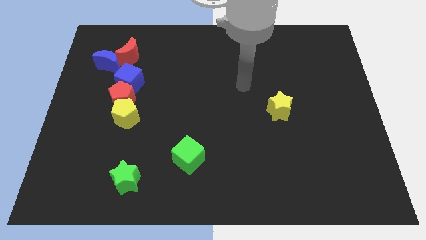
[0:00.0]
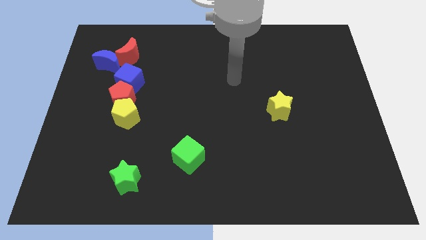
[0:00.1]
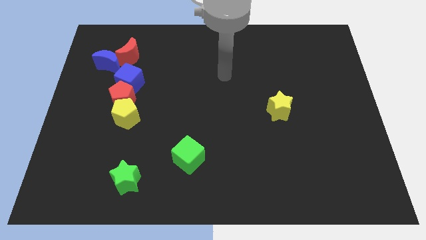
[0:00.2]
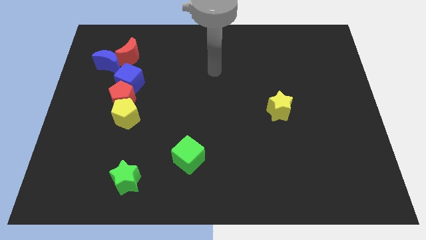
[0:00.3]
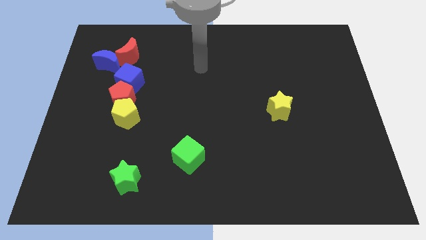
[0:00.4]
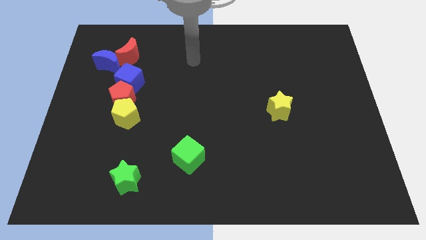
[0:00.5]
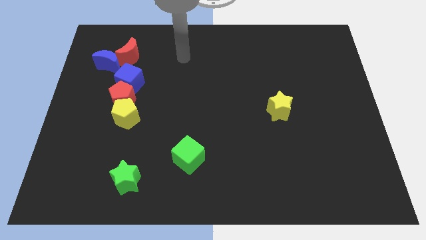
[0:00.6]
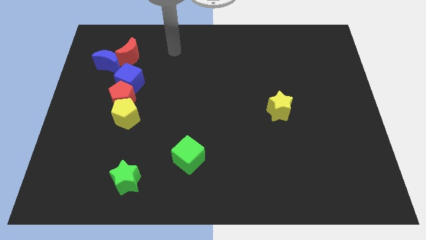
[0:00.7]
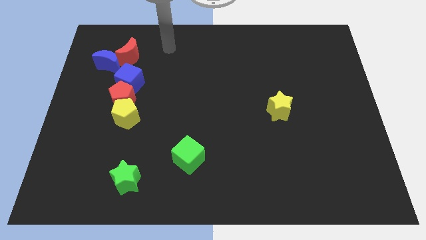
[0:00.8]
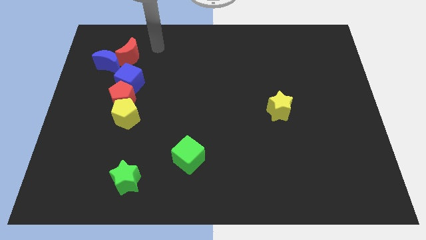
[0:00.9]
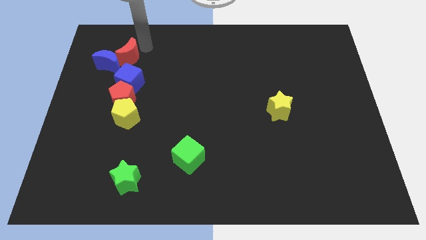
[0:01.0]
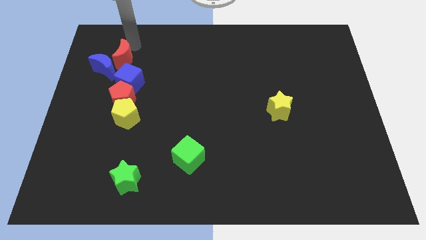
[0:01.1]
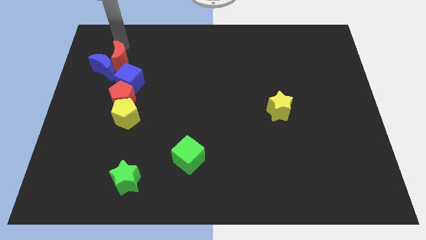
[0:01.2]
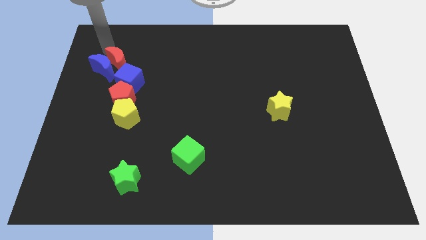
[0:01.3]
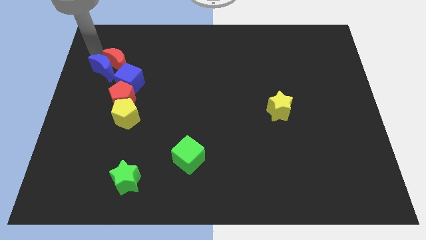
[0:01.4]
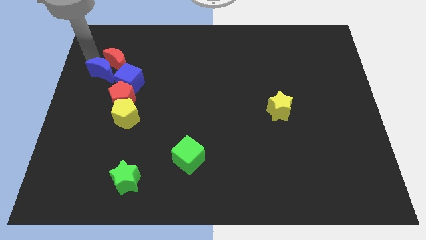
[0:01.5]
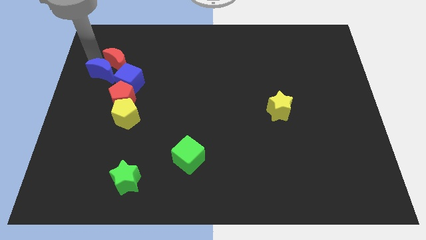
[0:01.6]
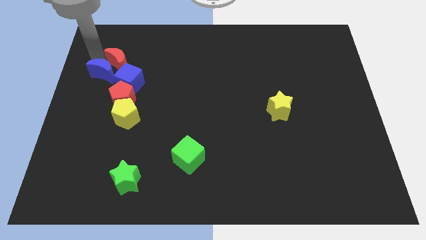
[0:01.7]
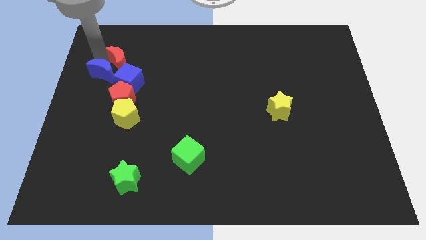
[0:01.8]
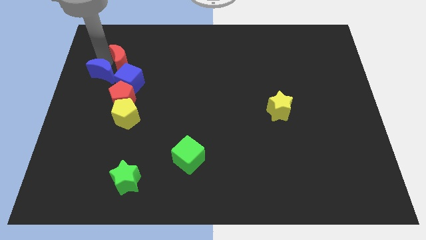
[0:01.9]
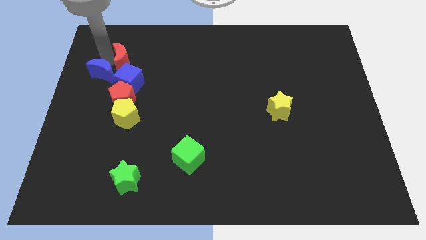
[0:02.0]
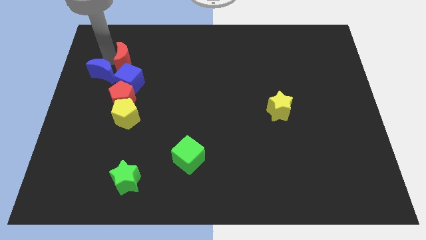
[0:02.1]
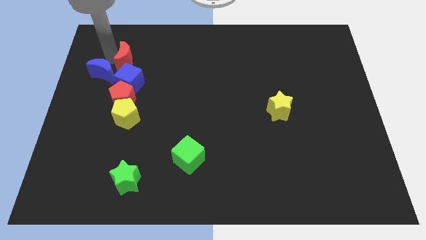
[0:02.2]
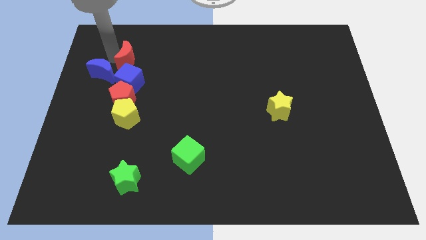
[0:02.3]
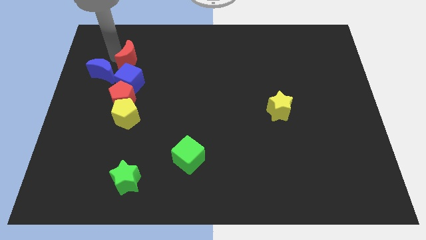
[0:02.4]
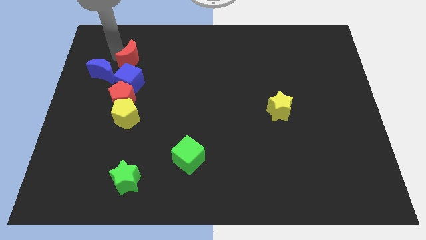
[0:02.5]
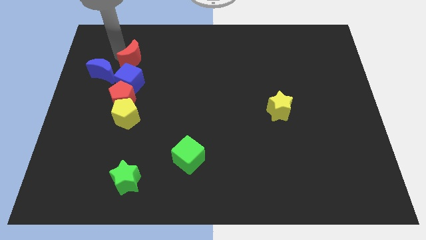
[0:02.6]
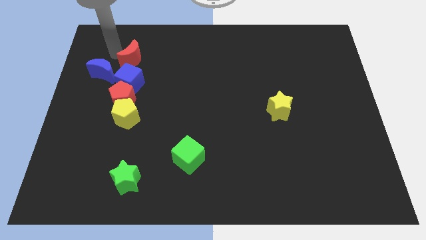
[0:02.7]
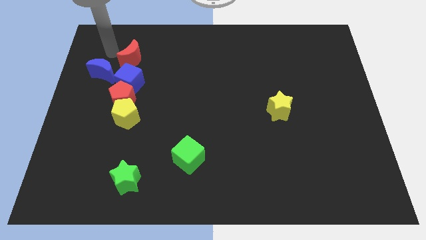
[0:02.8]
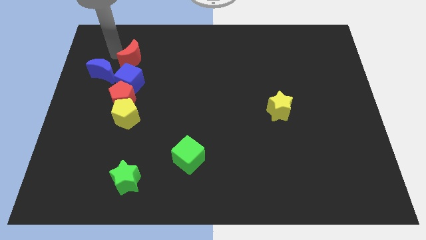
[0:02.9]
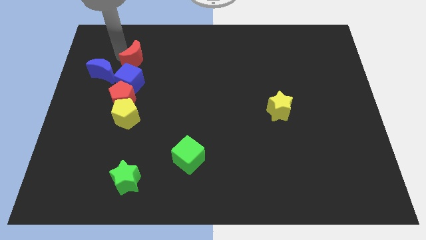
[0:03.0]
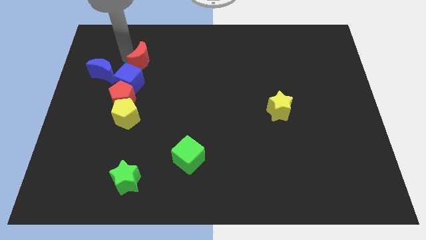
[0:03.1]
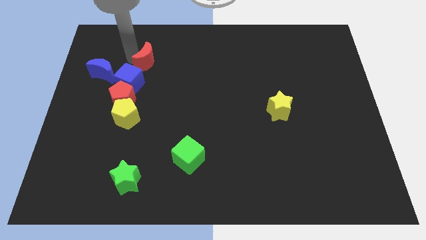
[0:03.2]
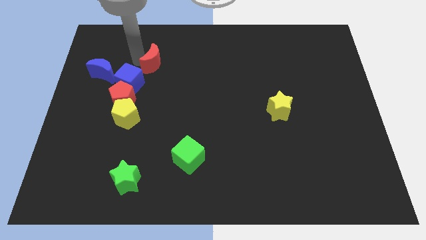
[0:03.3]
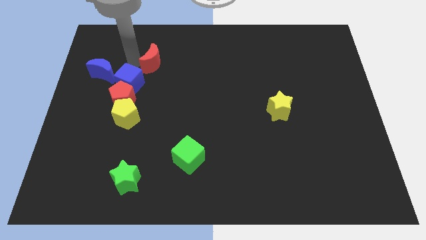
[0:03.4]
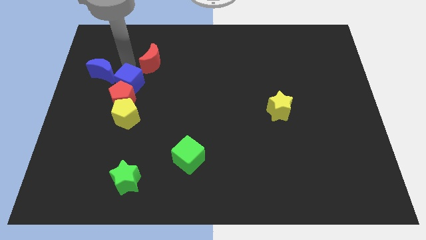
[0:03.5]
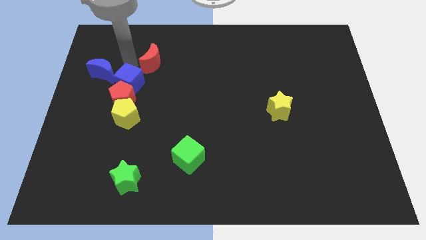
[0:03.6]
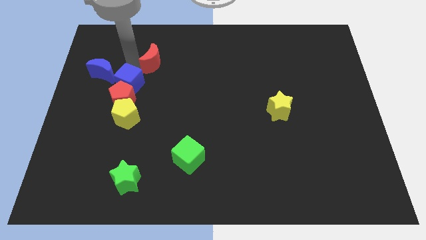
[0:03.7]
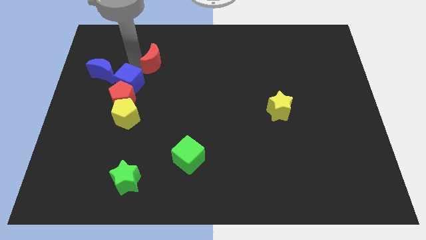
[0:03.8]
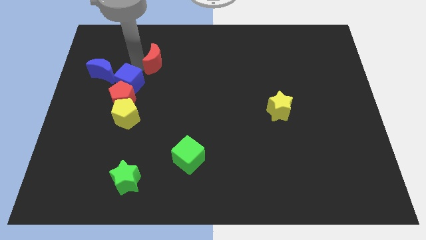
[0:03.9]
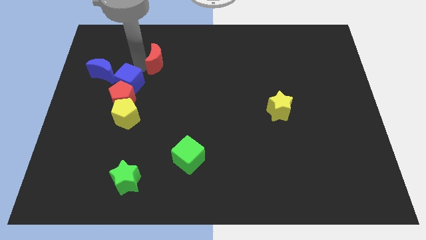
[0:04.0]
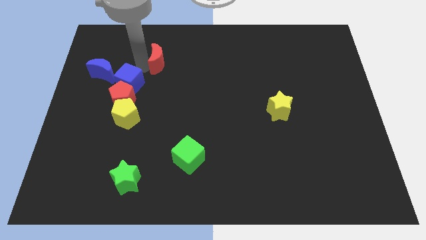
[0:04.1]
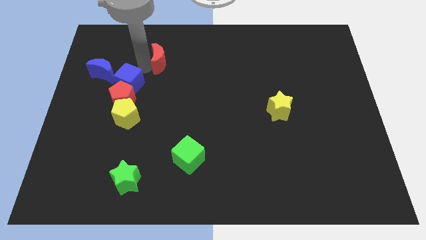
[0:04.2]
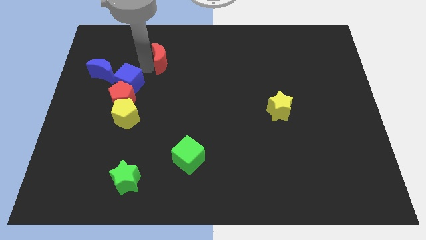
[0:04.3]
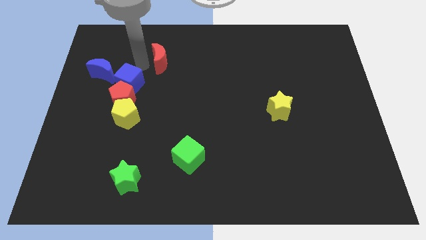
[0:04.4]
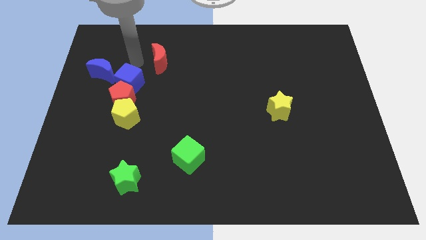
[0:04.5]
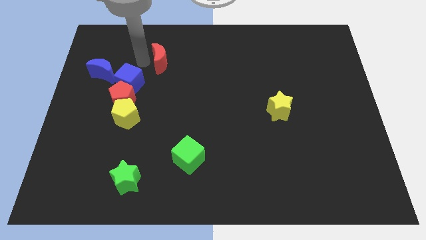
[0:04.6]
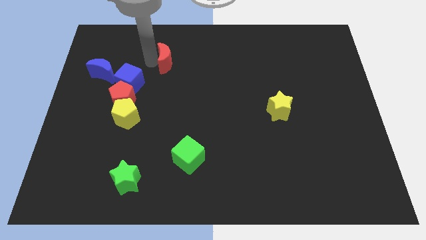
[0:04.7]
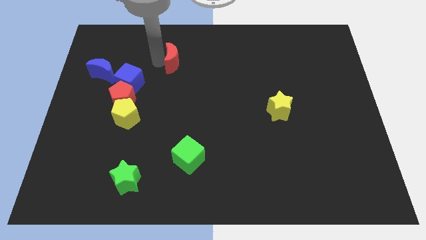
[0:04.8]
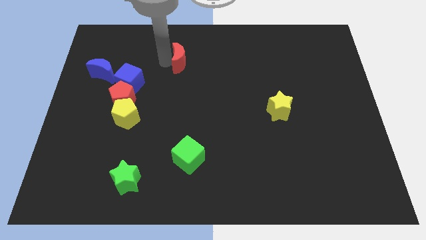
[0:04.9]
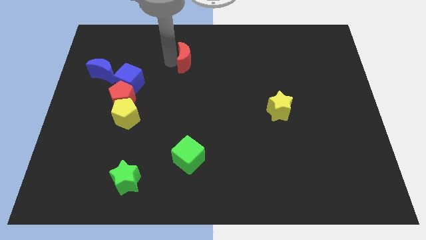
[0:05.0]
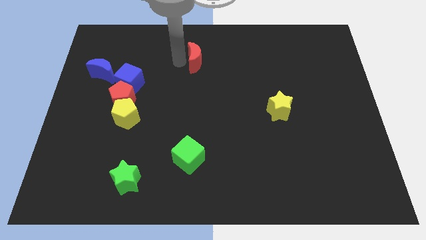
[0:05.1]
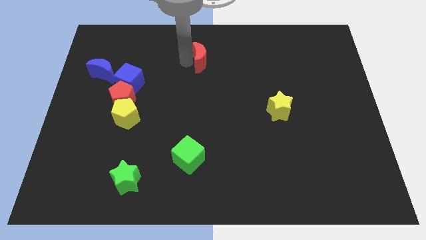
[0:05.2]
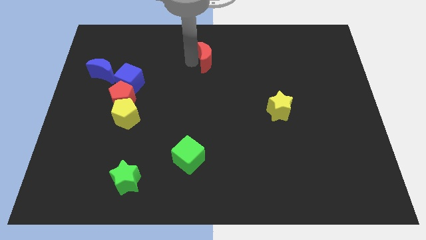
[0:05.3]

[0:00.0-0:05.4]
push the red moon right

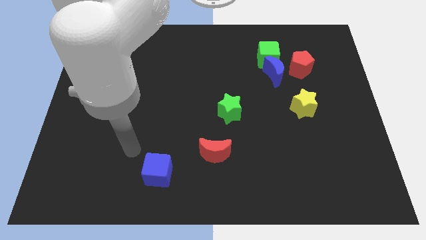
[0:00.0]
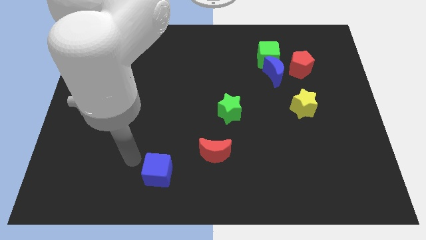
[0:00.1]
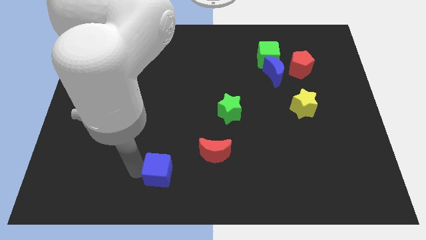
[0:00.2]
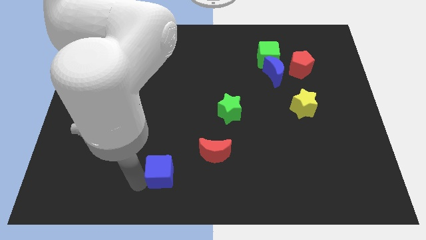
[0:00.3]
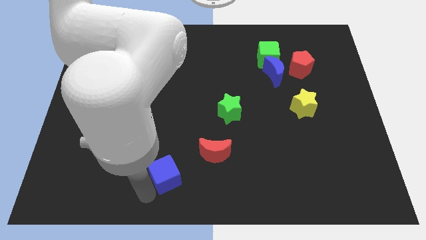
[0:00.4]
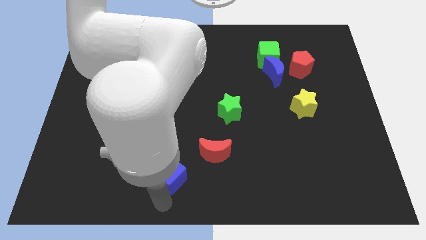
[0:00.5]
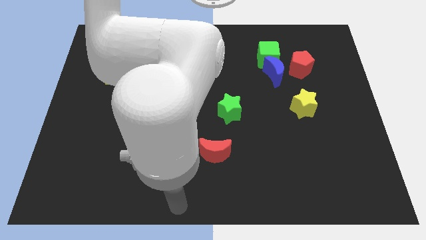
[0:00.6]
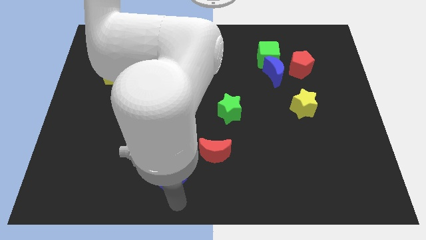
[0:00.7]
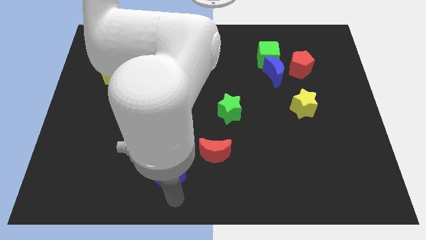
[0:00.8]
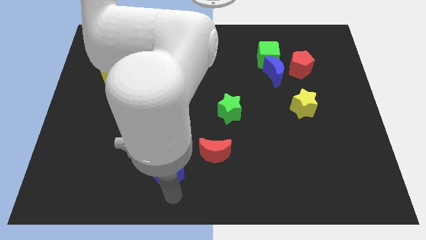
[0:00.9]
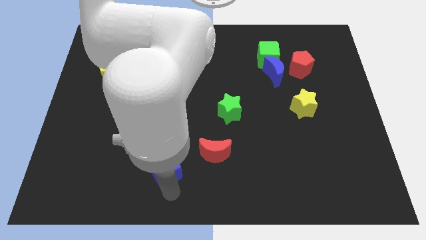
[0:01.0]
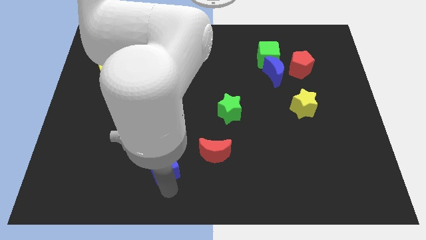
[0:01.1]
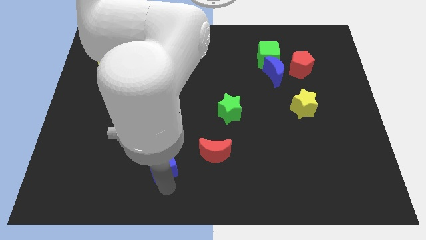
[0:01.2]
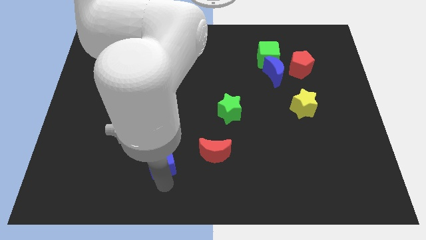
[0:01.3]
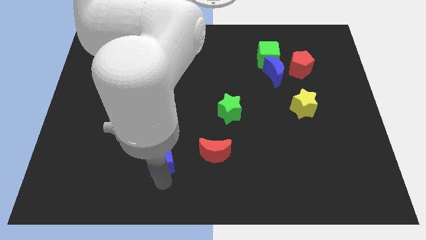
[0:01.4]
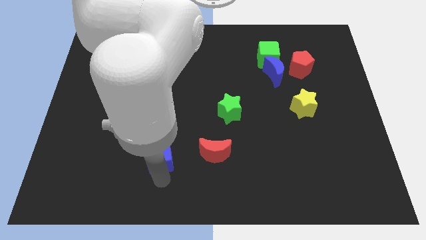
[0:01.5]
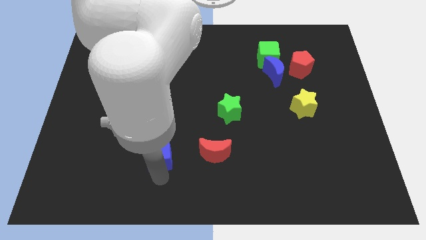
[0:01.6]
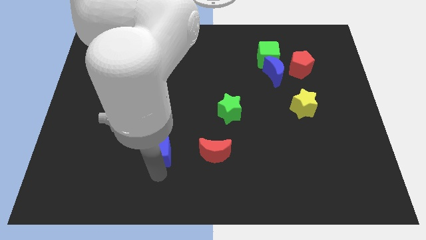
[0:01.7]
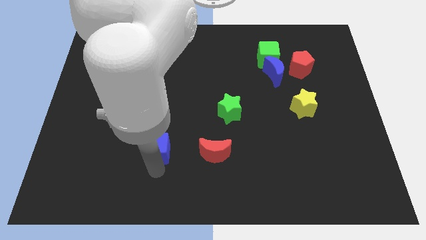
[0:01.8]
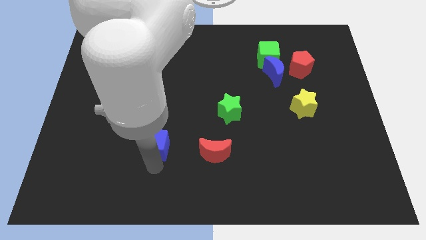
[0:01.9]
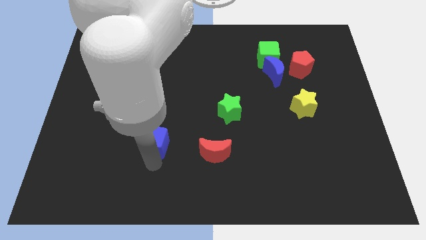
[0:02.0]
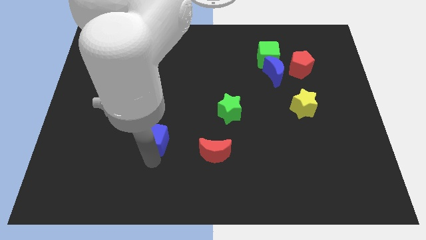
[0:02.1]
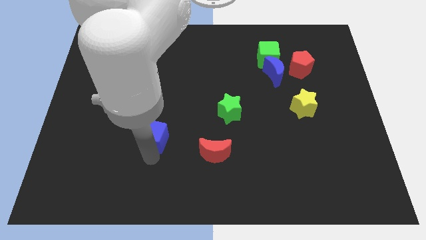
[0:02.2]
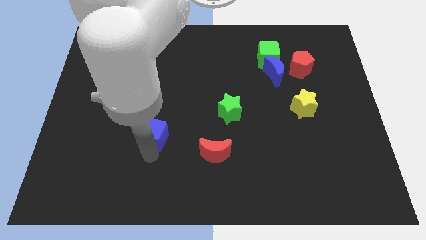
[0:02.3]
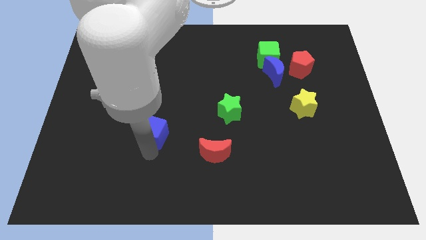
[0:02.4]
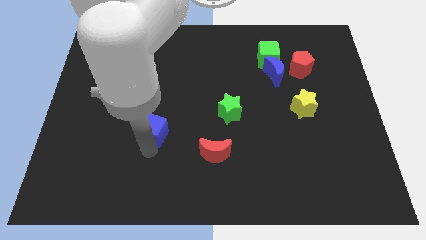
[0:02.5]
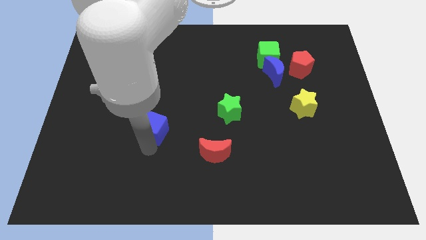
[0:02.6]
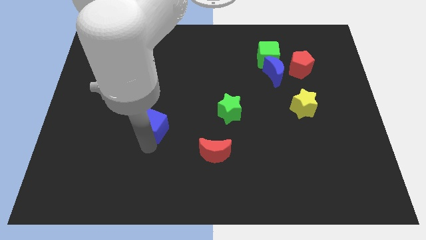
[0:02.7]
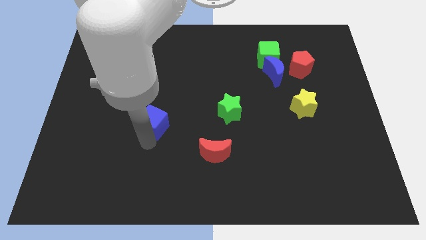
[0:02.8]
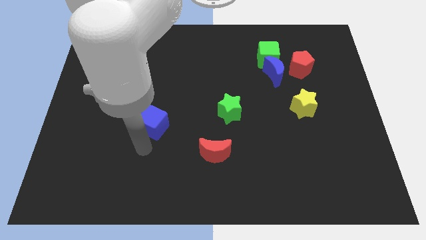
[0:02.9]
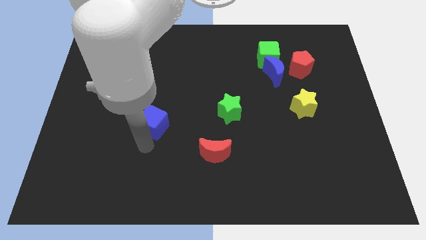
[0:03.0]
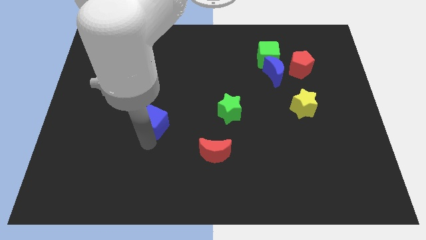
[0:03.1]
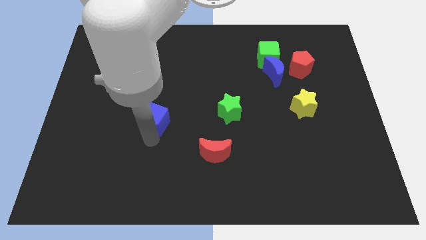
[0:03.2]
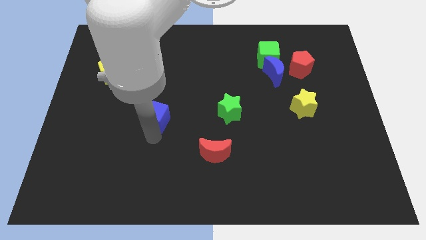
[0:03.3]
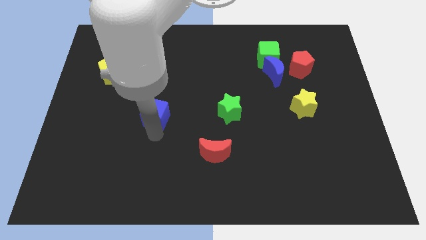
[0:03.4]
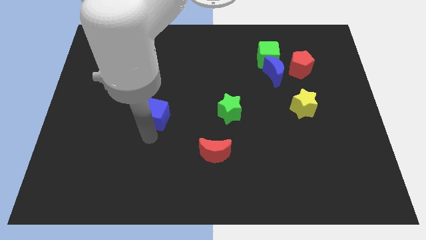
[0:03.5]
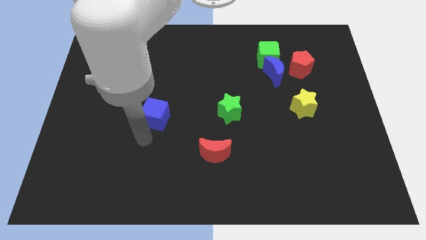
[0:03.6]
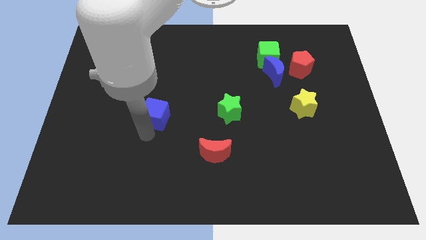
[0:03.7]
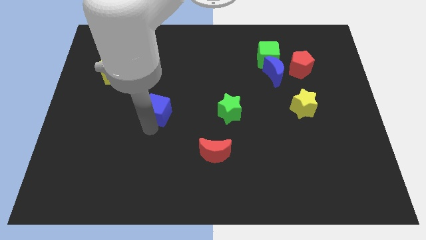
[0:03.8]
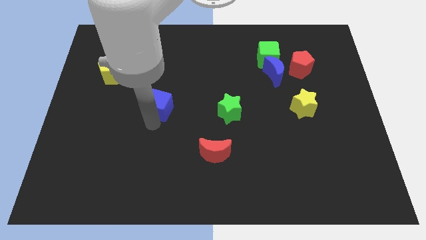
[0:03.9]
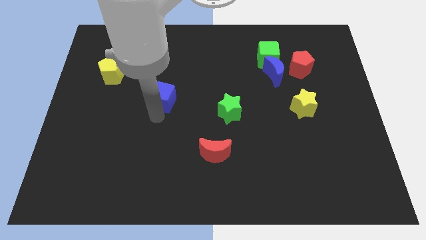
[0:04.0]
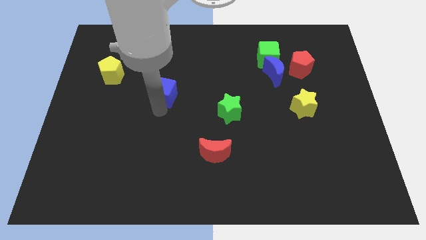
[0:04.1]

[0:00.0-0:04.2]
slide the blue cube up
